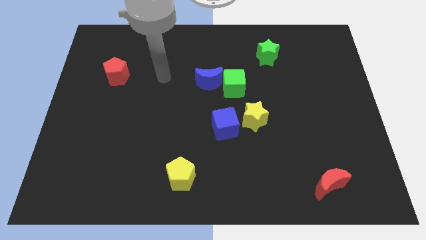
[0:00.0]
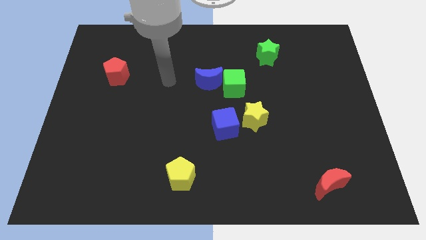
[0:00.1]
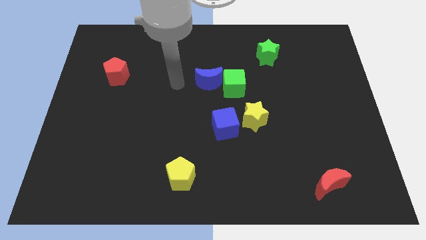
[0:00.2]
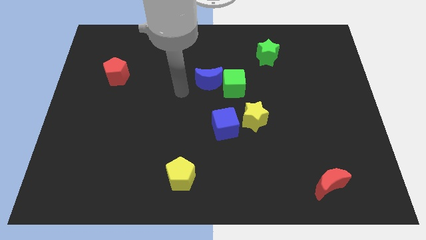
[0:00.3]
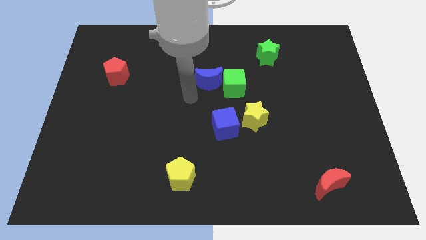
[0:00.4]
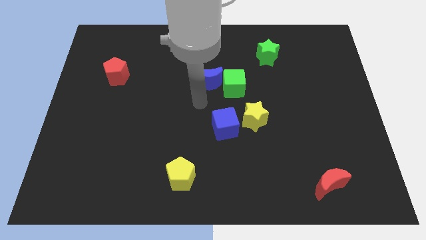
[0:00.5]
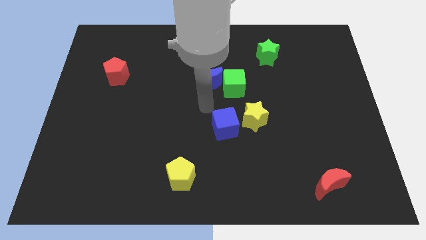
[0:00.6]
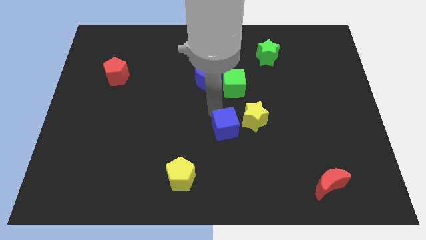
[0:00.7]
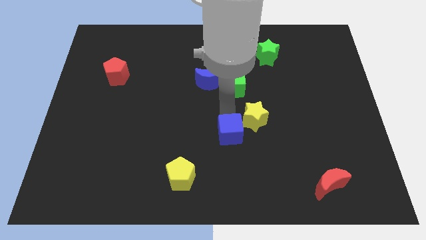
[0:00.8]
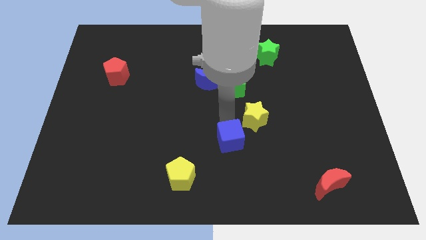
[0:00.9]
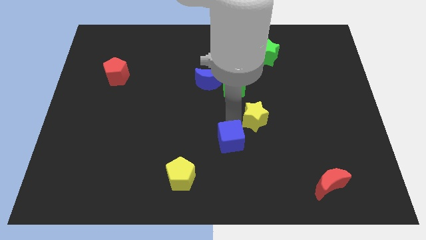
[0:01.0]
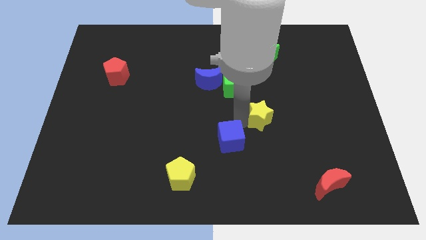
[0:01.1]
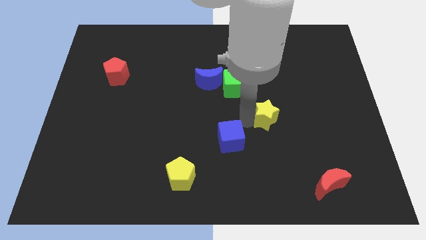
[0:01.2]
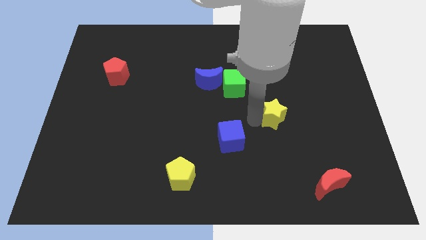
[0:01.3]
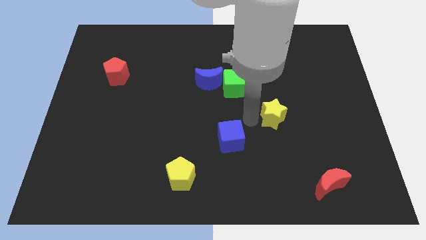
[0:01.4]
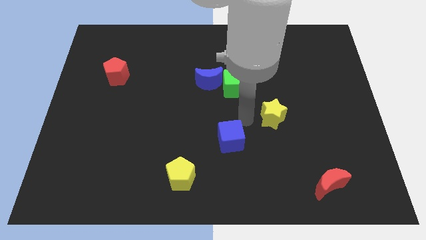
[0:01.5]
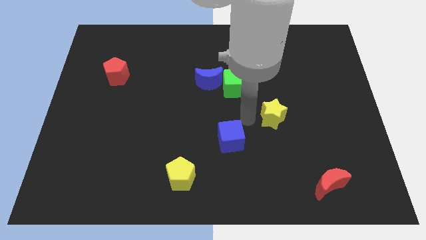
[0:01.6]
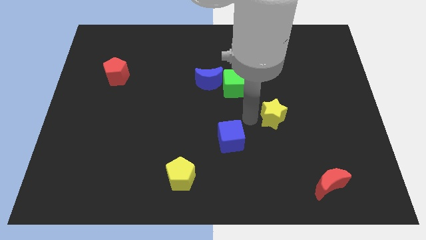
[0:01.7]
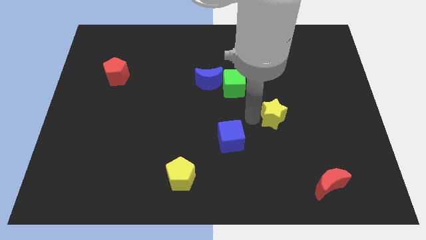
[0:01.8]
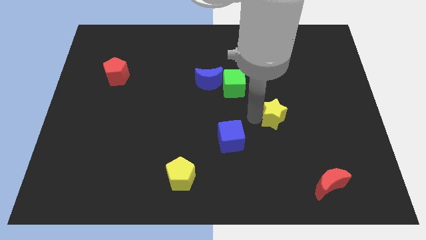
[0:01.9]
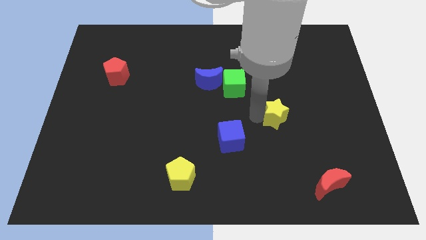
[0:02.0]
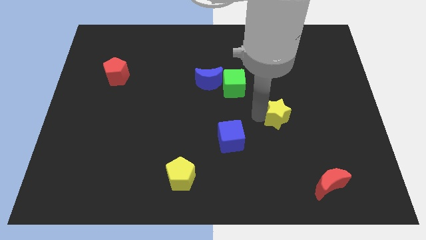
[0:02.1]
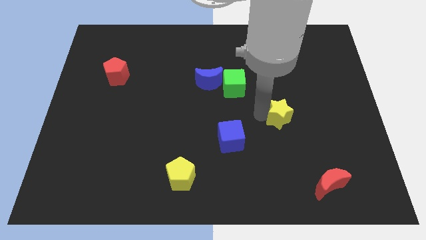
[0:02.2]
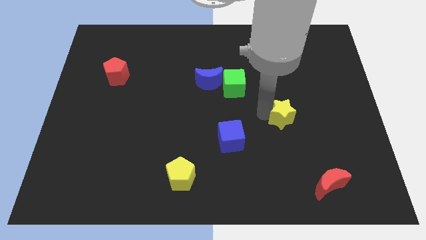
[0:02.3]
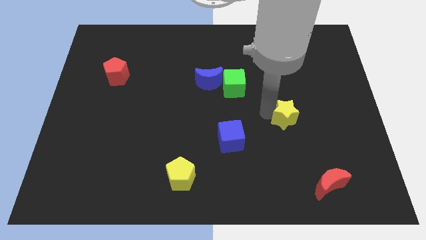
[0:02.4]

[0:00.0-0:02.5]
move the yellow star to the right a bit

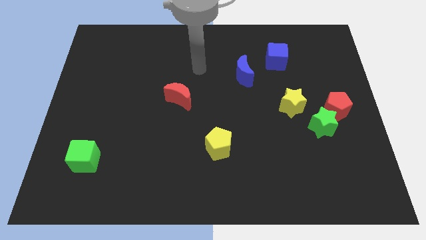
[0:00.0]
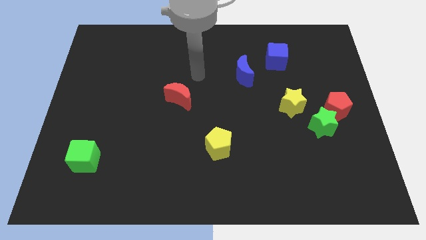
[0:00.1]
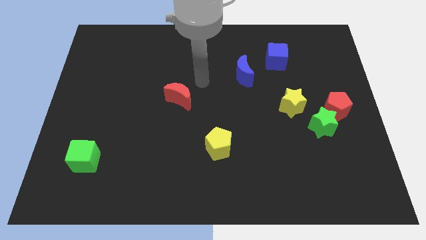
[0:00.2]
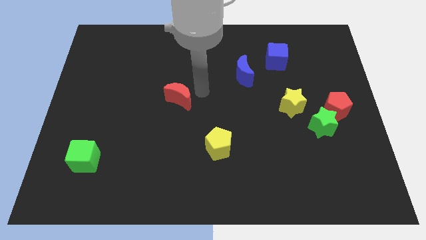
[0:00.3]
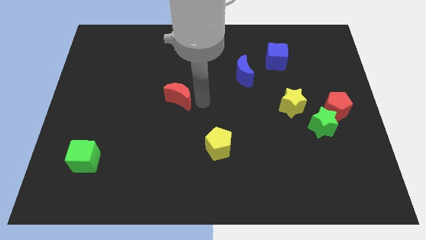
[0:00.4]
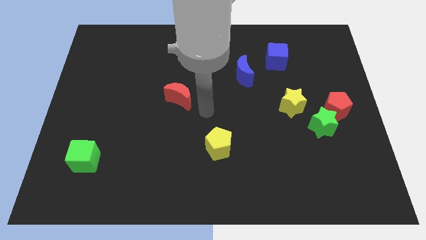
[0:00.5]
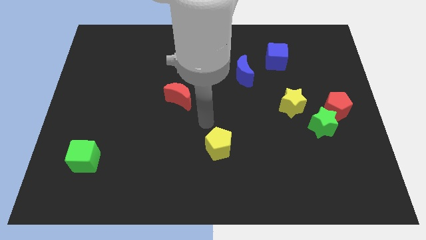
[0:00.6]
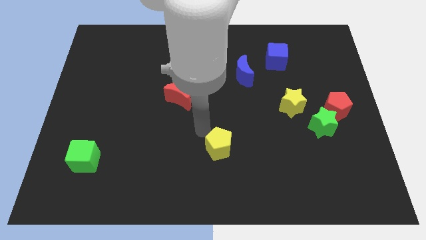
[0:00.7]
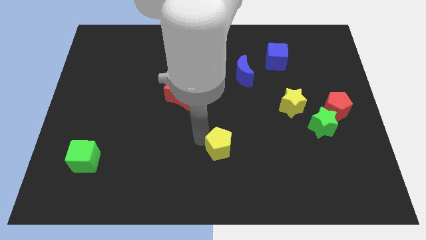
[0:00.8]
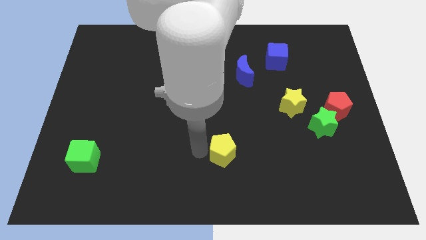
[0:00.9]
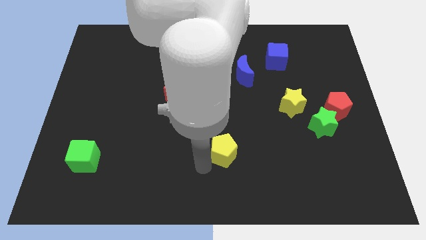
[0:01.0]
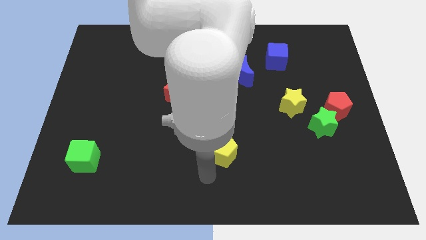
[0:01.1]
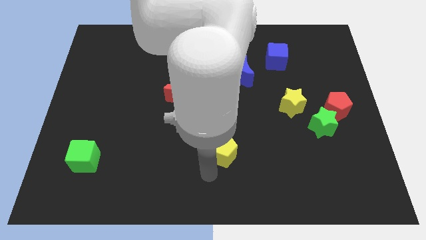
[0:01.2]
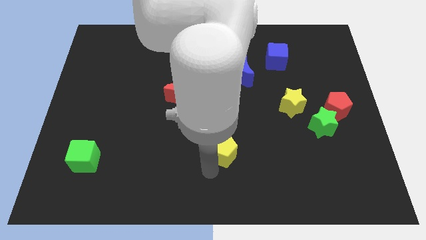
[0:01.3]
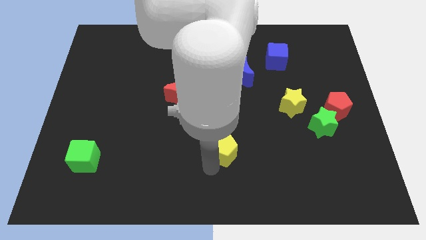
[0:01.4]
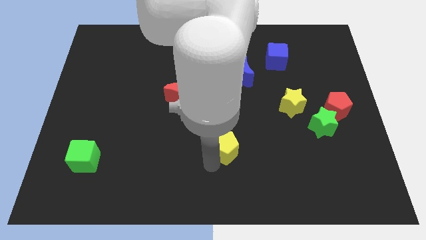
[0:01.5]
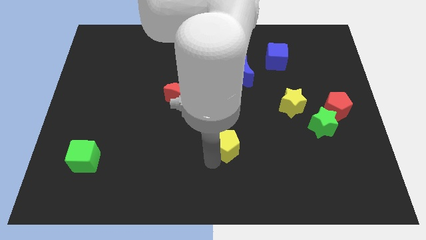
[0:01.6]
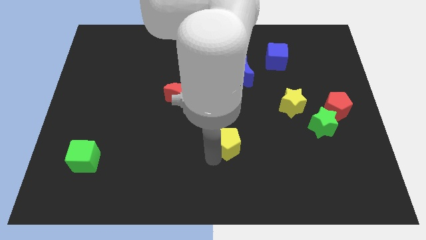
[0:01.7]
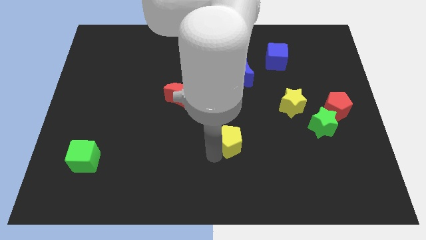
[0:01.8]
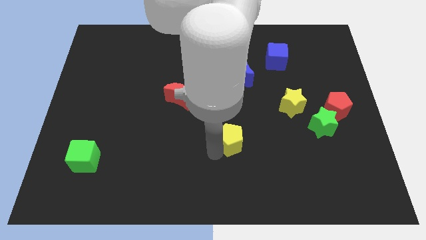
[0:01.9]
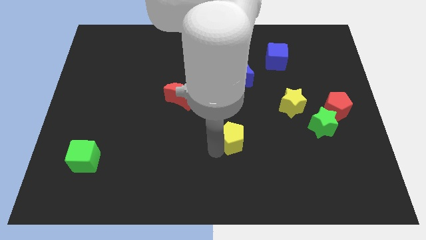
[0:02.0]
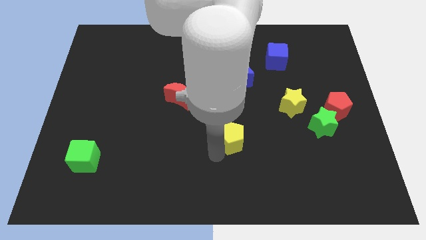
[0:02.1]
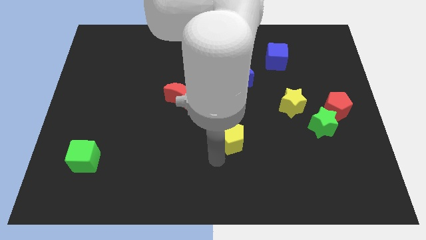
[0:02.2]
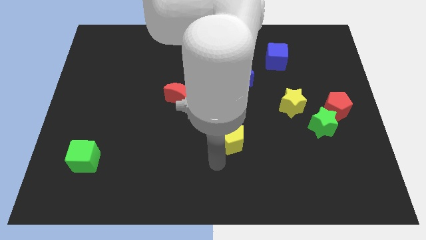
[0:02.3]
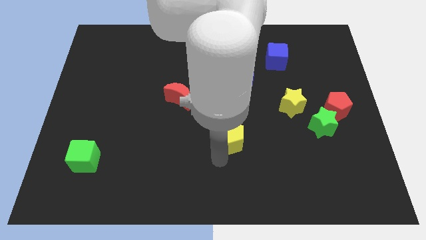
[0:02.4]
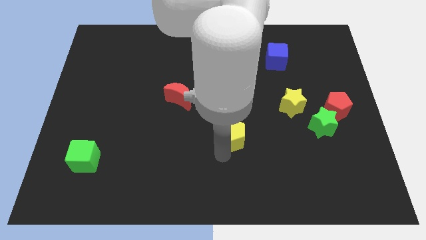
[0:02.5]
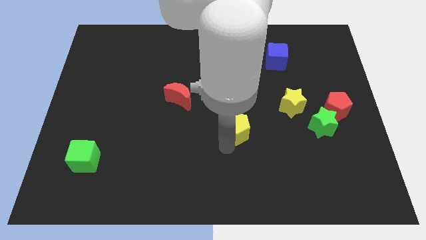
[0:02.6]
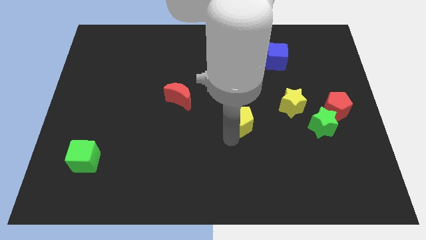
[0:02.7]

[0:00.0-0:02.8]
move the yellow pentagon upwards and to the right diagonally a little

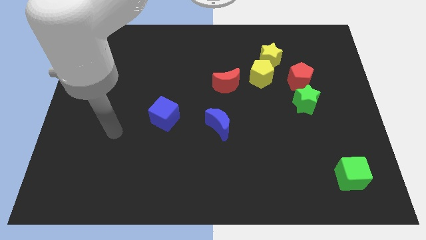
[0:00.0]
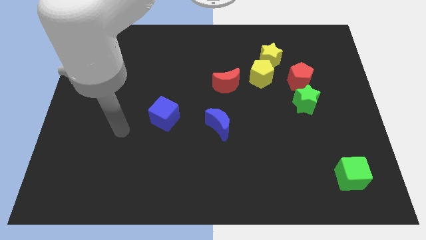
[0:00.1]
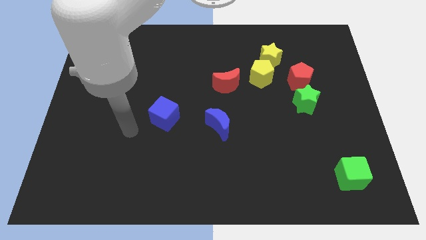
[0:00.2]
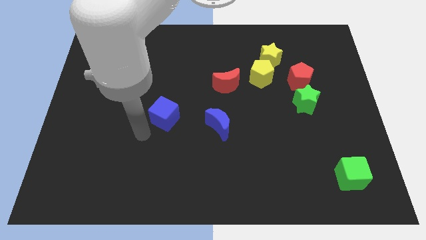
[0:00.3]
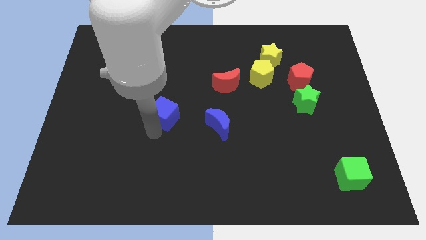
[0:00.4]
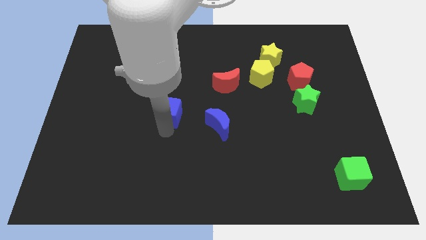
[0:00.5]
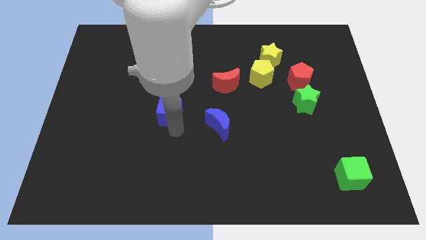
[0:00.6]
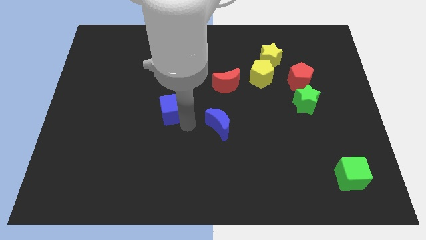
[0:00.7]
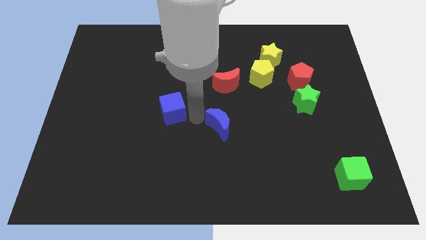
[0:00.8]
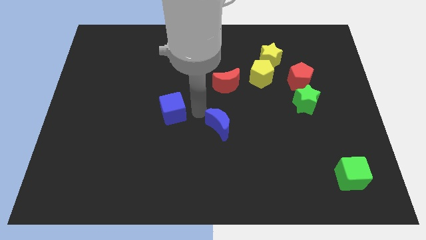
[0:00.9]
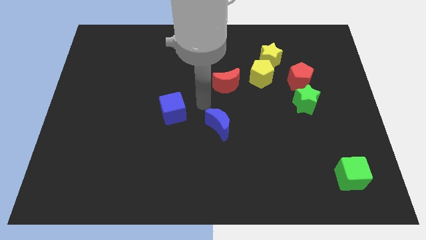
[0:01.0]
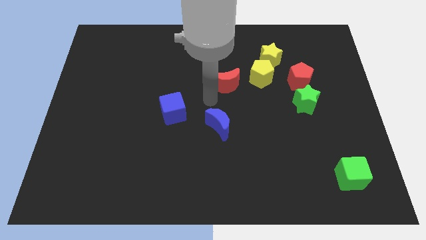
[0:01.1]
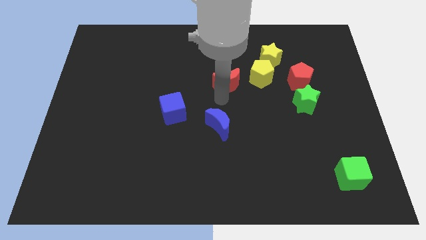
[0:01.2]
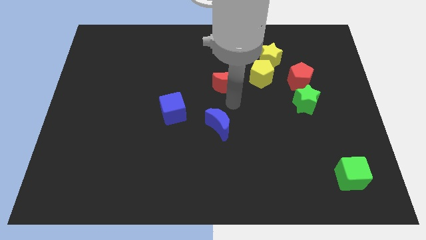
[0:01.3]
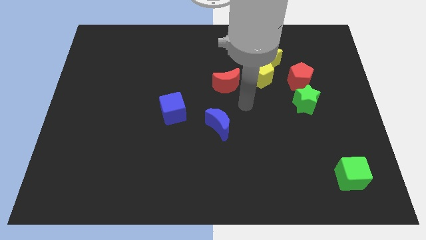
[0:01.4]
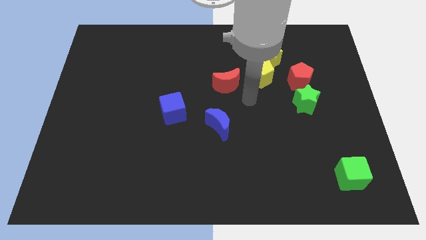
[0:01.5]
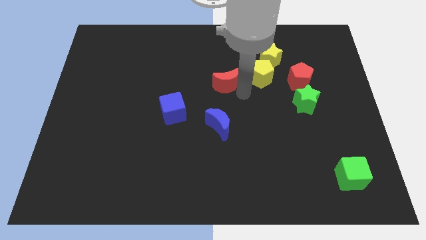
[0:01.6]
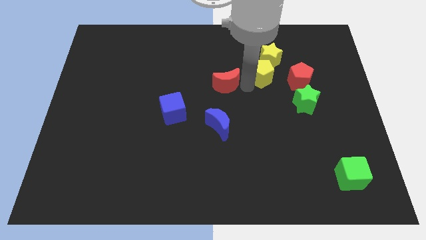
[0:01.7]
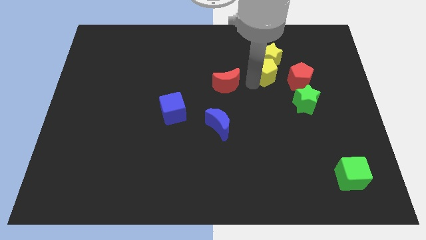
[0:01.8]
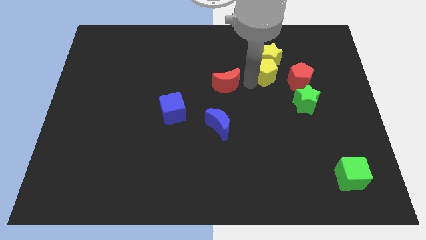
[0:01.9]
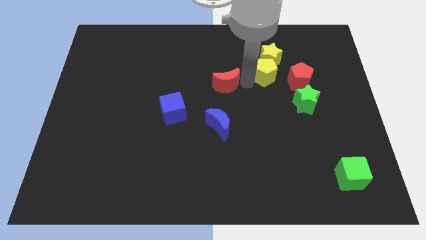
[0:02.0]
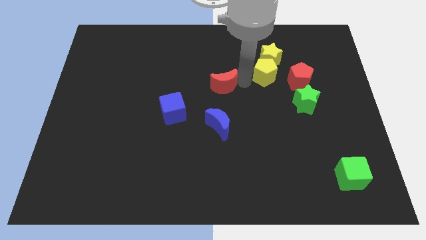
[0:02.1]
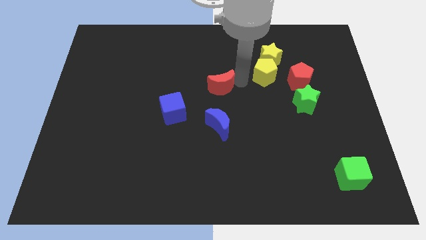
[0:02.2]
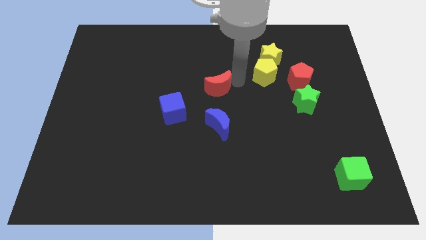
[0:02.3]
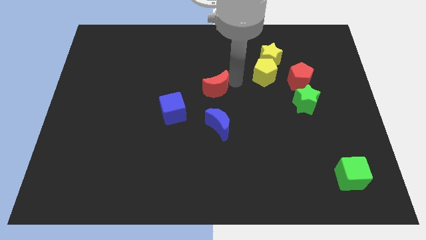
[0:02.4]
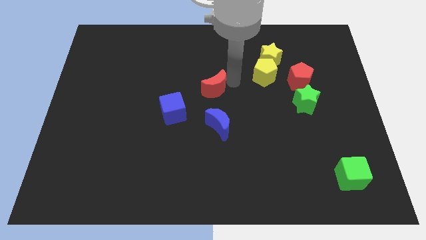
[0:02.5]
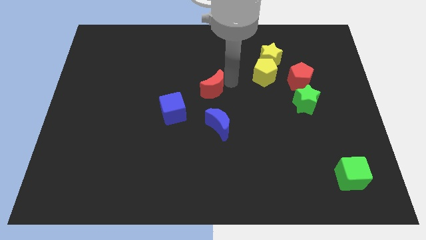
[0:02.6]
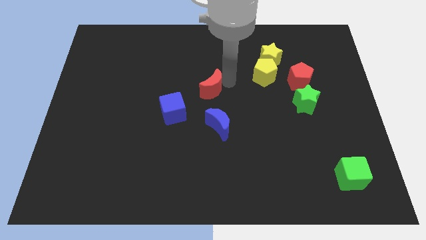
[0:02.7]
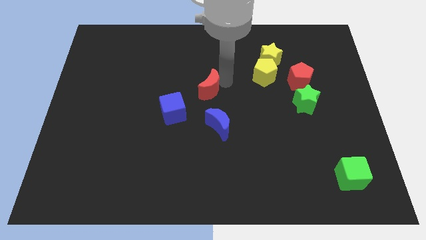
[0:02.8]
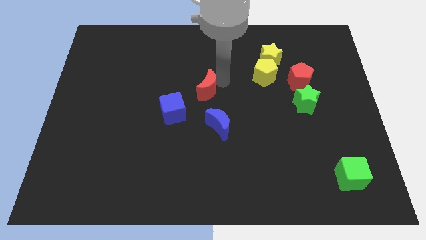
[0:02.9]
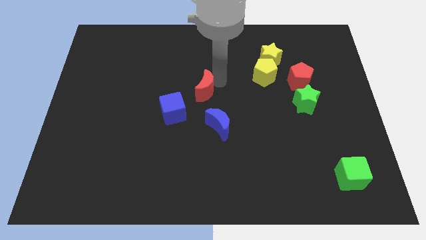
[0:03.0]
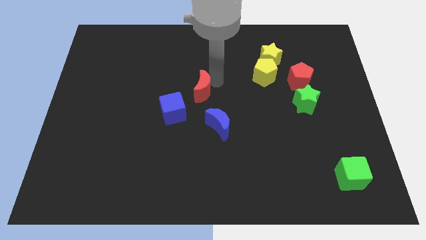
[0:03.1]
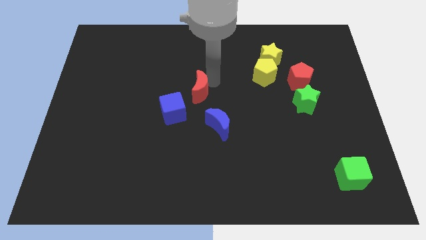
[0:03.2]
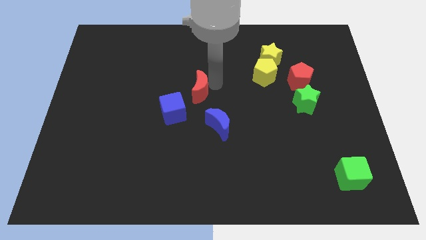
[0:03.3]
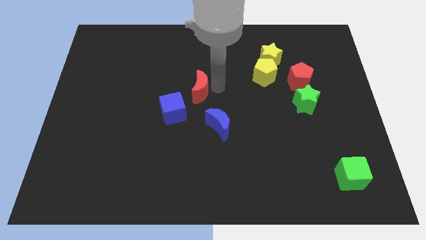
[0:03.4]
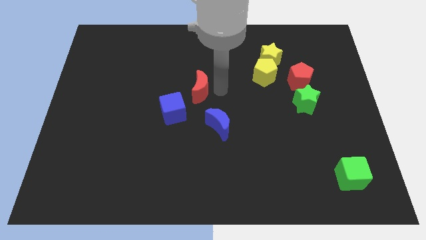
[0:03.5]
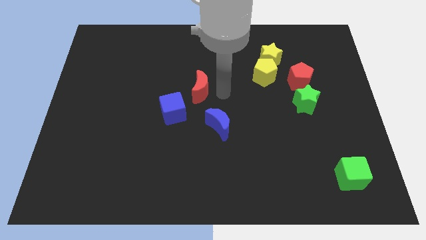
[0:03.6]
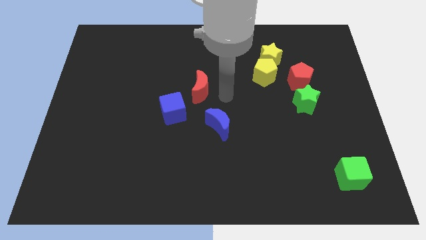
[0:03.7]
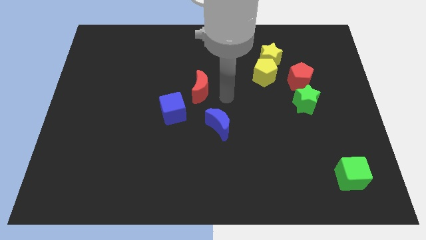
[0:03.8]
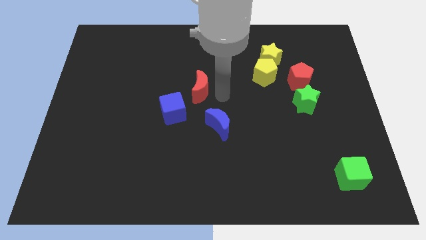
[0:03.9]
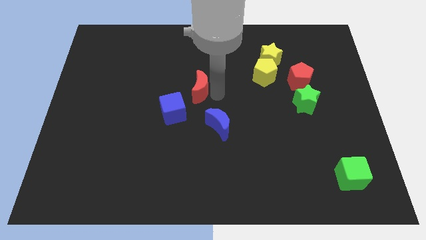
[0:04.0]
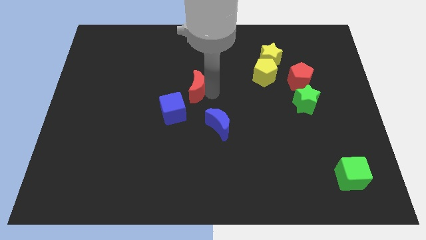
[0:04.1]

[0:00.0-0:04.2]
push the red moon slightly to the left
